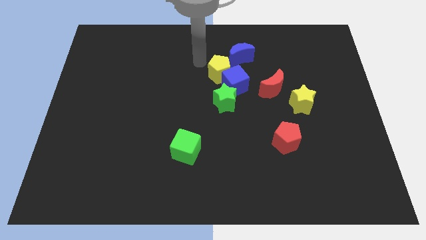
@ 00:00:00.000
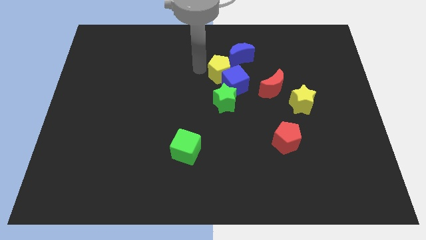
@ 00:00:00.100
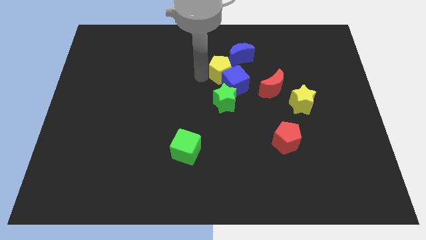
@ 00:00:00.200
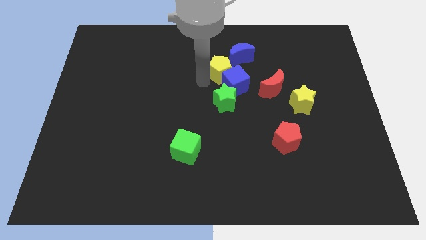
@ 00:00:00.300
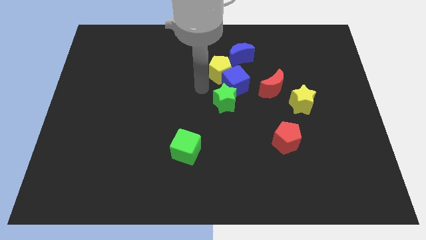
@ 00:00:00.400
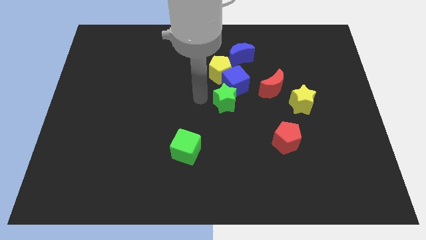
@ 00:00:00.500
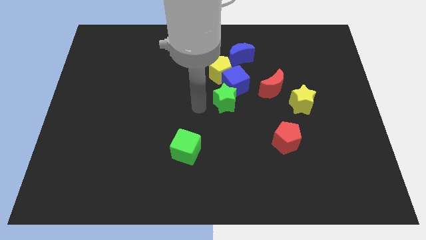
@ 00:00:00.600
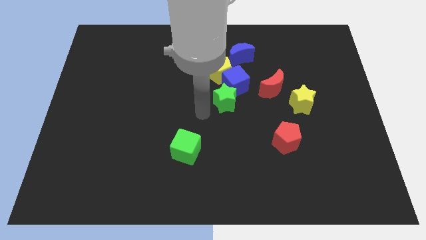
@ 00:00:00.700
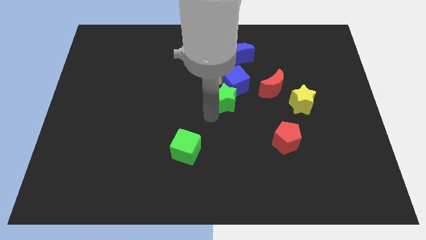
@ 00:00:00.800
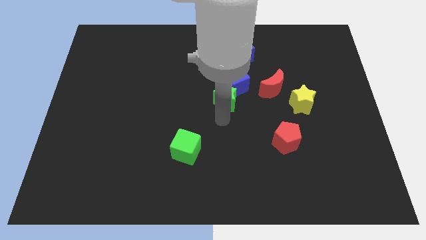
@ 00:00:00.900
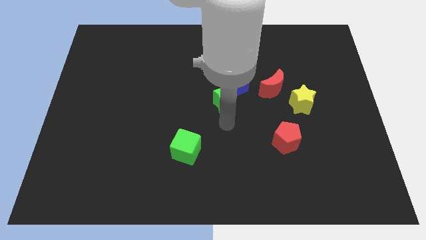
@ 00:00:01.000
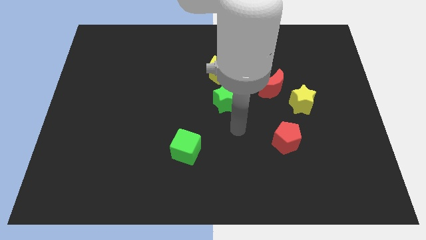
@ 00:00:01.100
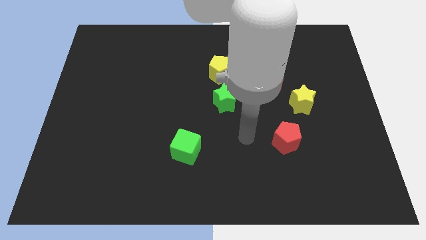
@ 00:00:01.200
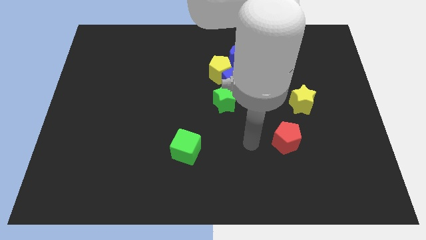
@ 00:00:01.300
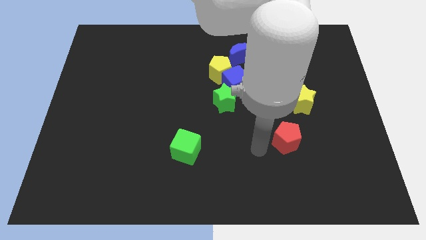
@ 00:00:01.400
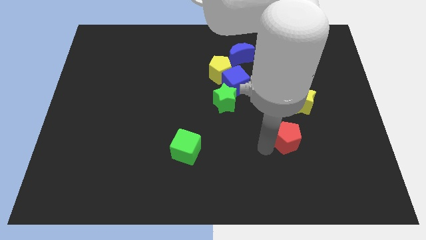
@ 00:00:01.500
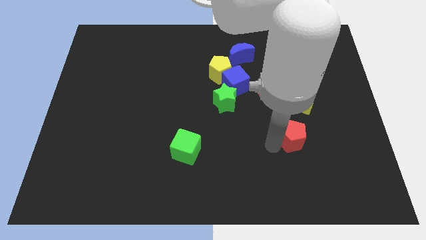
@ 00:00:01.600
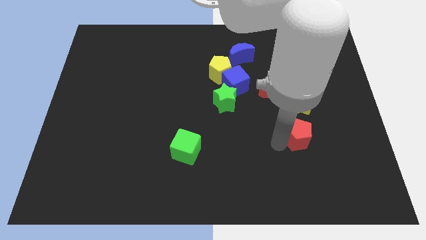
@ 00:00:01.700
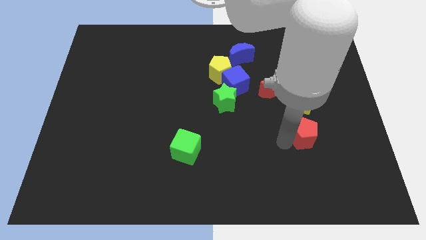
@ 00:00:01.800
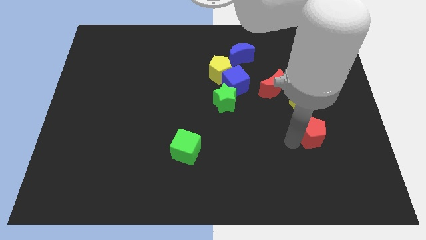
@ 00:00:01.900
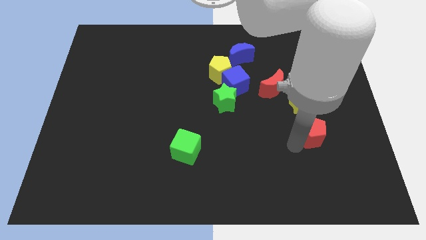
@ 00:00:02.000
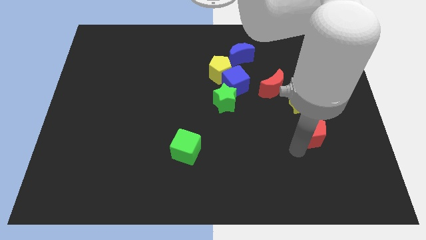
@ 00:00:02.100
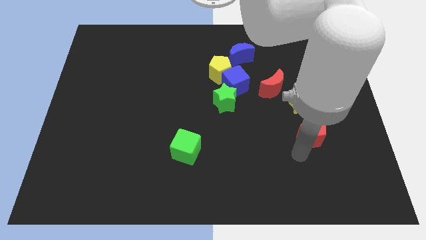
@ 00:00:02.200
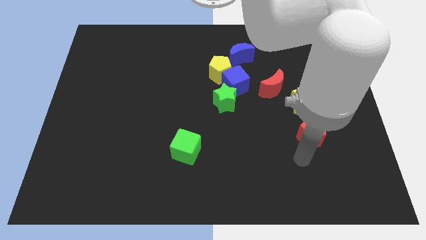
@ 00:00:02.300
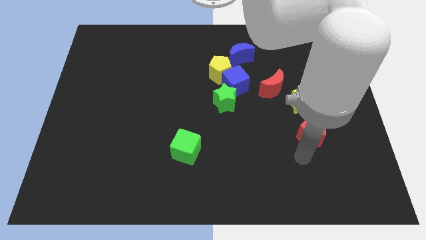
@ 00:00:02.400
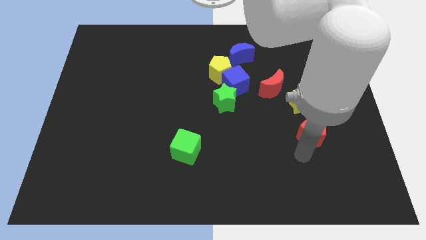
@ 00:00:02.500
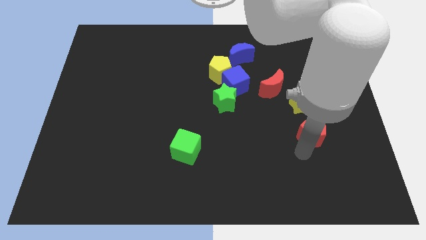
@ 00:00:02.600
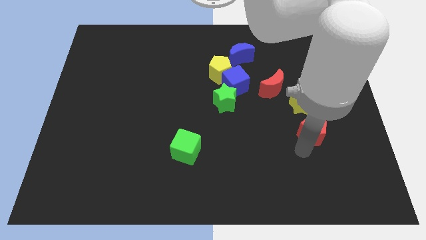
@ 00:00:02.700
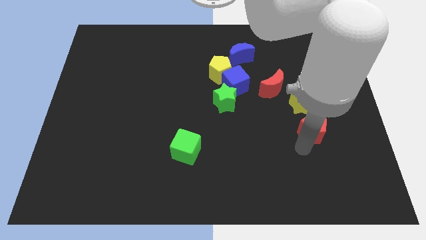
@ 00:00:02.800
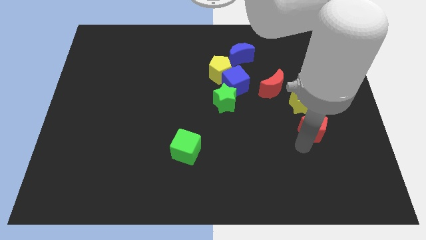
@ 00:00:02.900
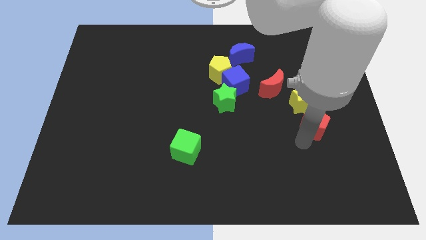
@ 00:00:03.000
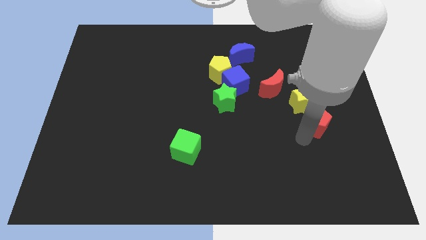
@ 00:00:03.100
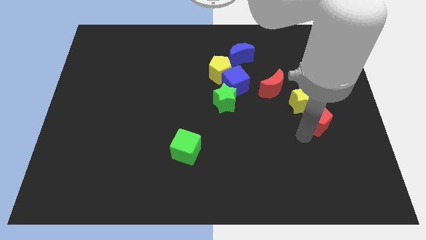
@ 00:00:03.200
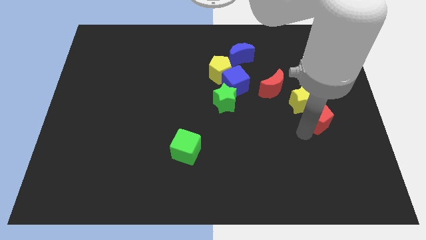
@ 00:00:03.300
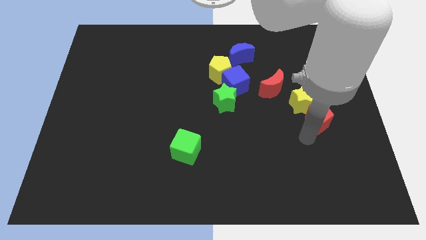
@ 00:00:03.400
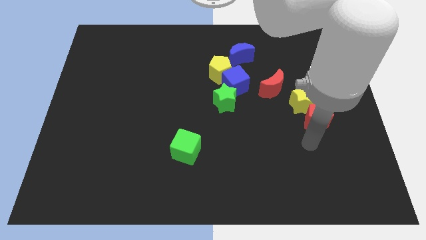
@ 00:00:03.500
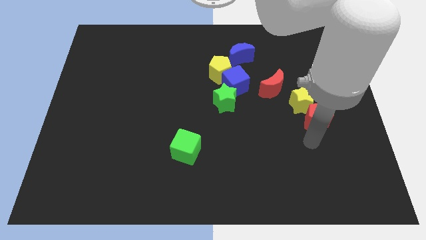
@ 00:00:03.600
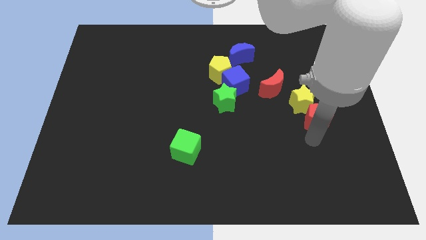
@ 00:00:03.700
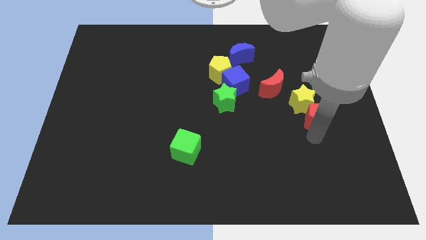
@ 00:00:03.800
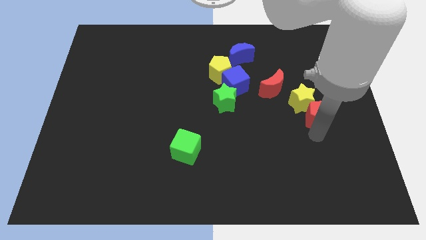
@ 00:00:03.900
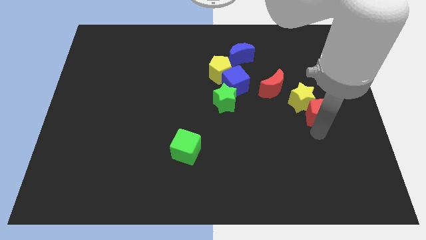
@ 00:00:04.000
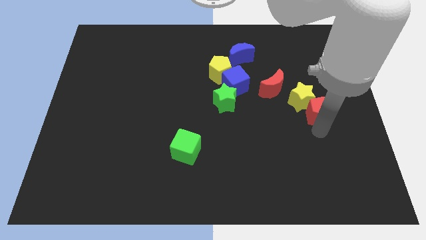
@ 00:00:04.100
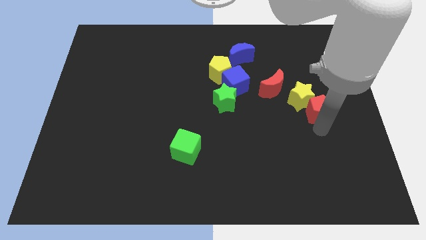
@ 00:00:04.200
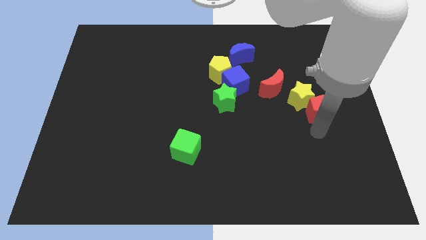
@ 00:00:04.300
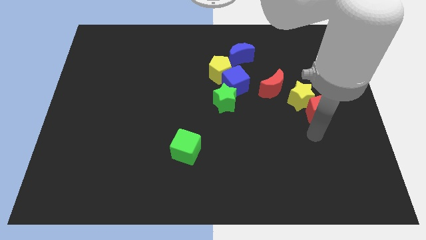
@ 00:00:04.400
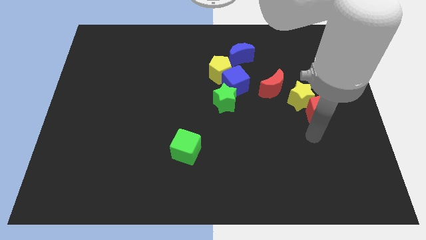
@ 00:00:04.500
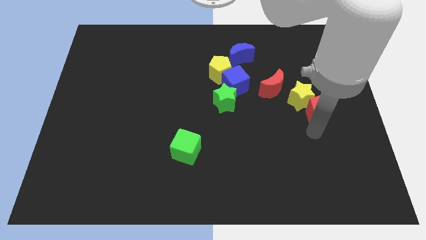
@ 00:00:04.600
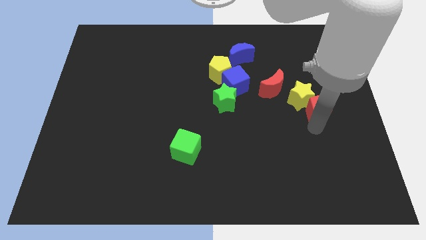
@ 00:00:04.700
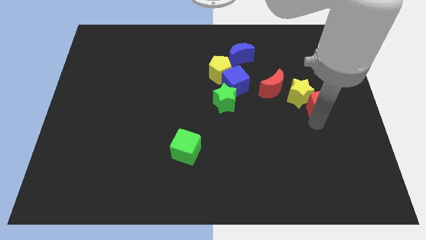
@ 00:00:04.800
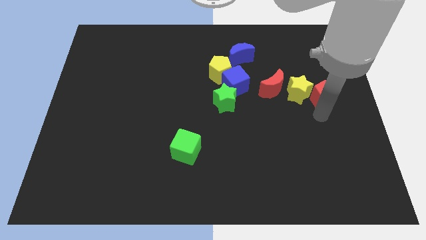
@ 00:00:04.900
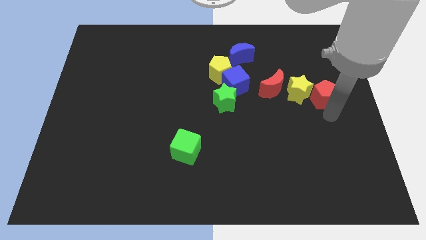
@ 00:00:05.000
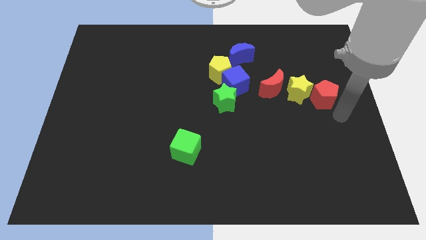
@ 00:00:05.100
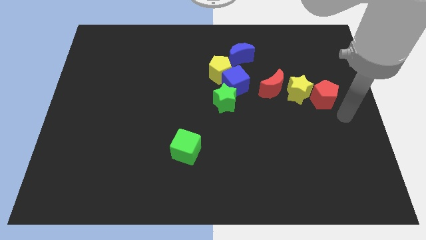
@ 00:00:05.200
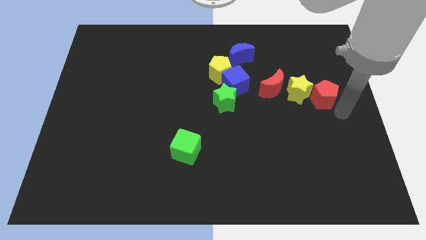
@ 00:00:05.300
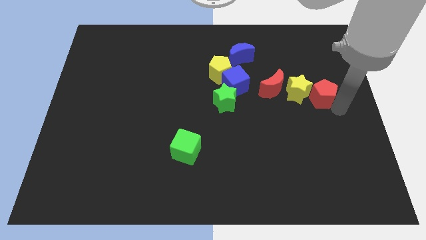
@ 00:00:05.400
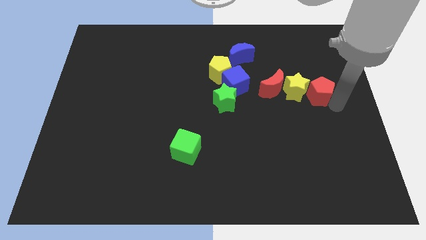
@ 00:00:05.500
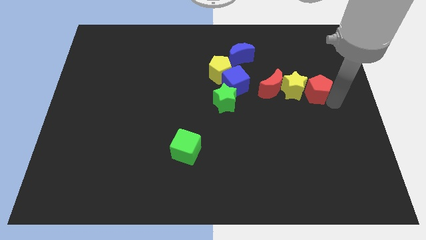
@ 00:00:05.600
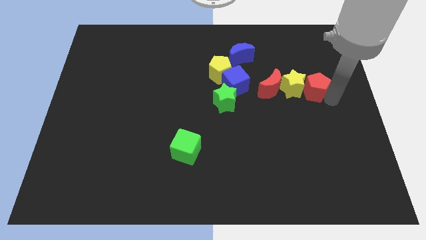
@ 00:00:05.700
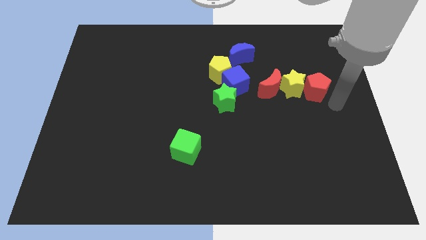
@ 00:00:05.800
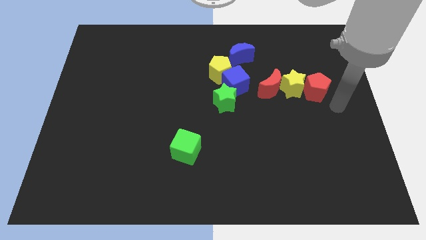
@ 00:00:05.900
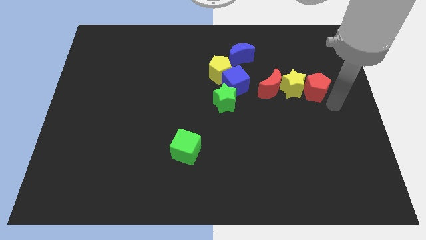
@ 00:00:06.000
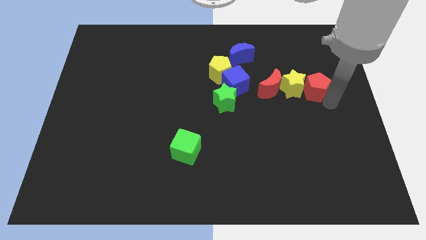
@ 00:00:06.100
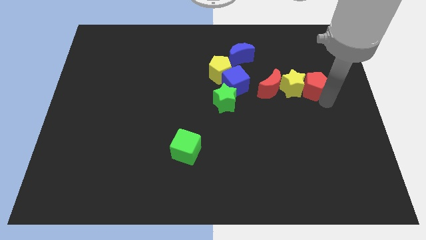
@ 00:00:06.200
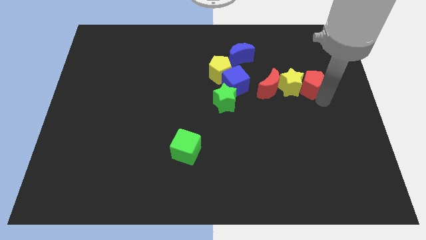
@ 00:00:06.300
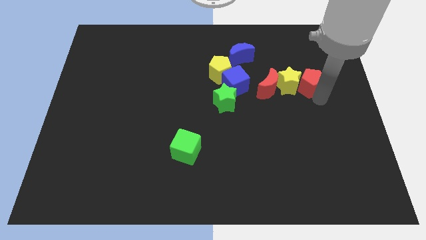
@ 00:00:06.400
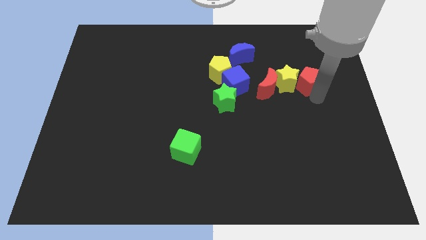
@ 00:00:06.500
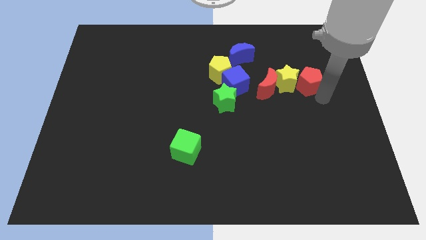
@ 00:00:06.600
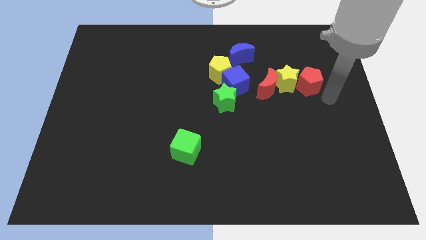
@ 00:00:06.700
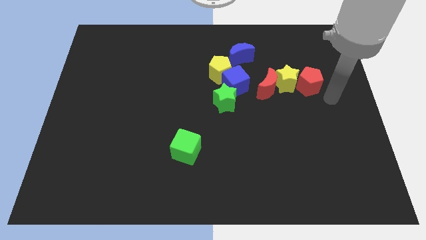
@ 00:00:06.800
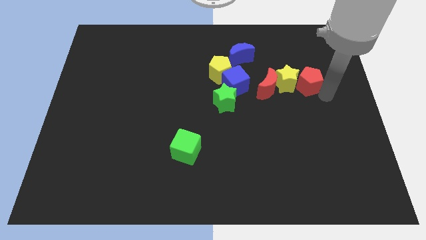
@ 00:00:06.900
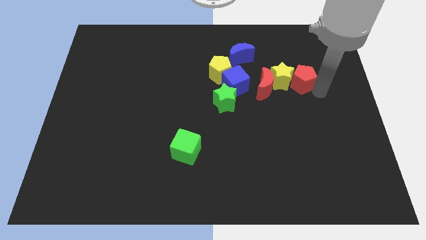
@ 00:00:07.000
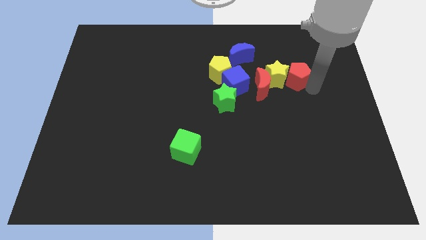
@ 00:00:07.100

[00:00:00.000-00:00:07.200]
put the red pentagon to the top right side of the red moon
